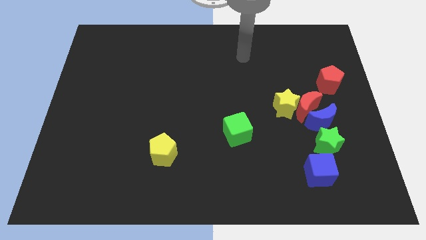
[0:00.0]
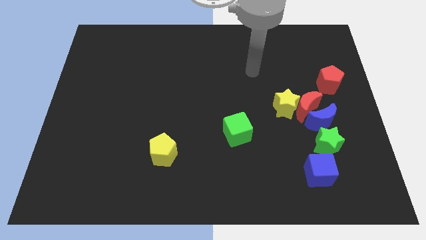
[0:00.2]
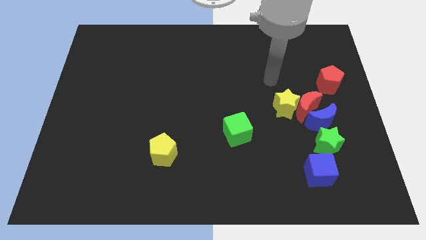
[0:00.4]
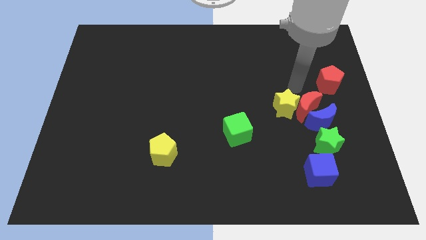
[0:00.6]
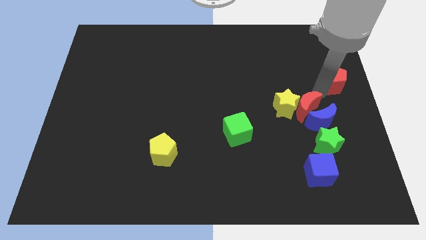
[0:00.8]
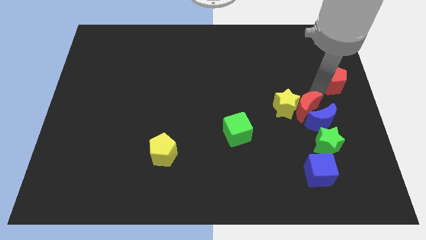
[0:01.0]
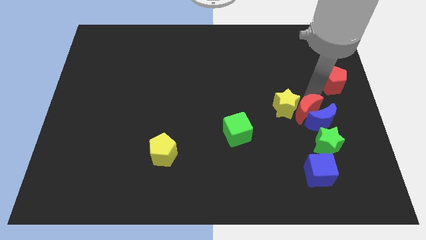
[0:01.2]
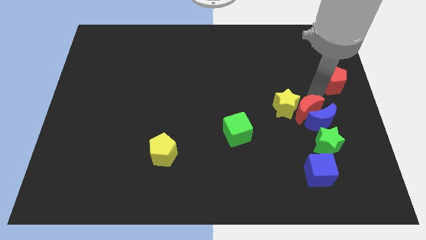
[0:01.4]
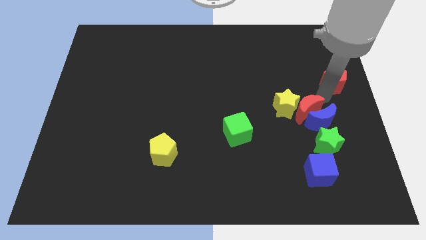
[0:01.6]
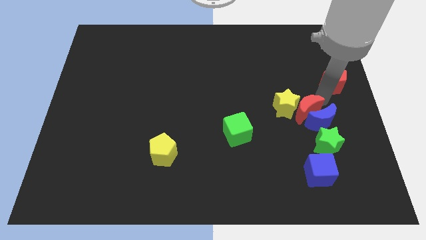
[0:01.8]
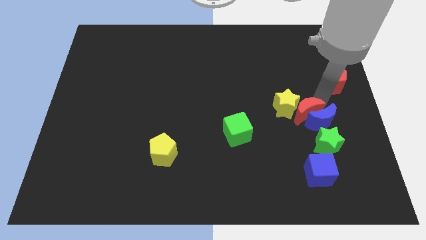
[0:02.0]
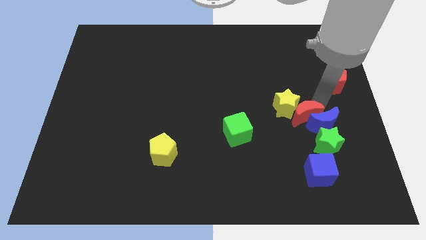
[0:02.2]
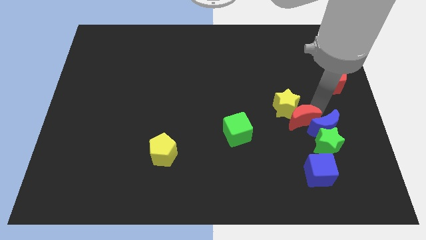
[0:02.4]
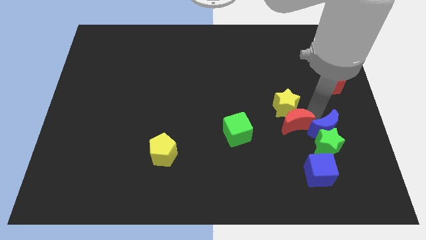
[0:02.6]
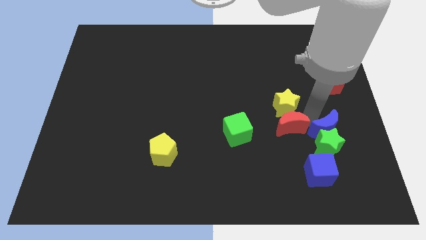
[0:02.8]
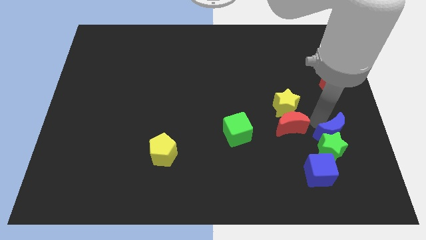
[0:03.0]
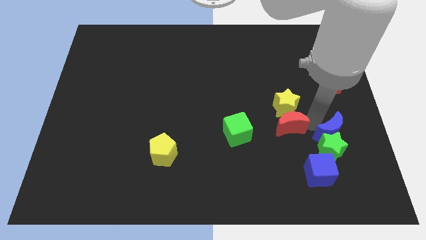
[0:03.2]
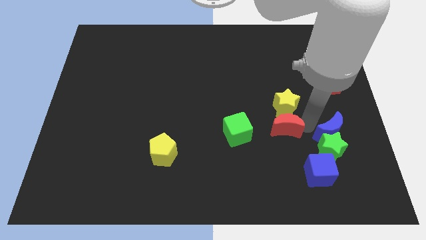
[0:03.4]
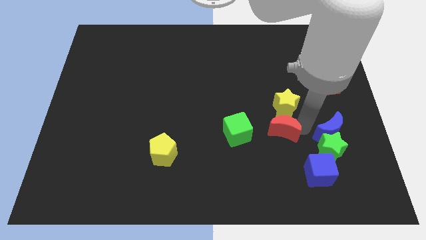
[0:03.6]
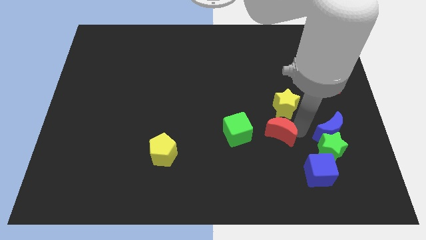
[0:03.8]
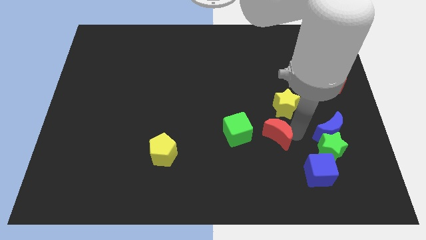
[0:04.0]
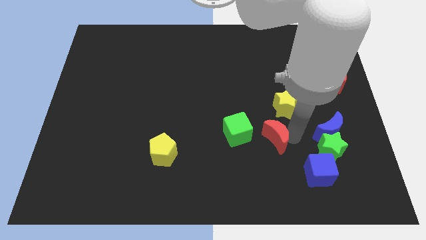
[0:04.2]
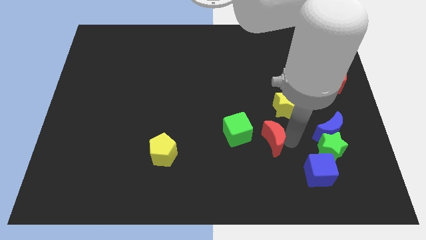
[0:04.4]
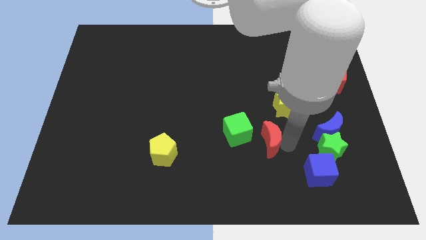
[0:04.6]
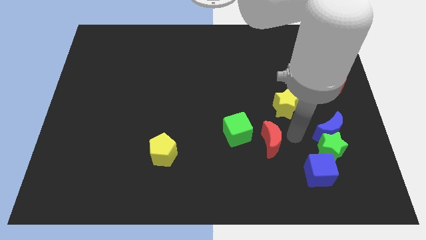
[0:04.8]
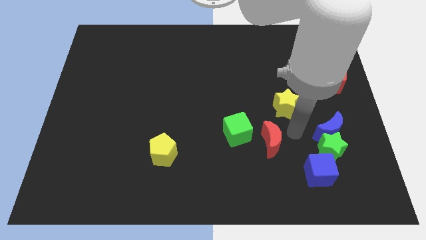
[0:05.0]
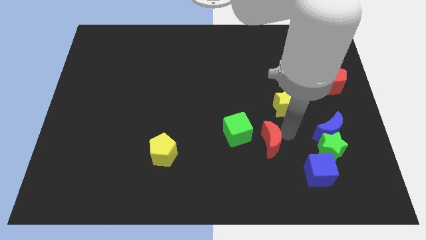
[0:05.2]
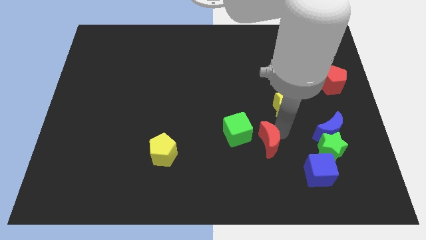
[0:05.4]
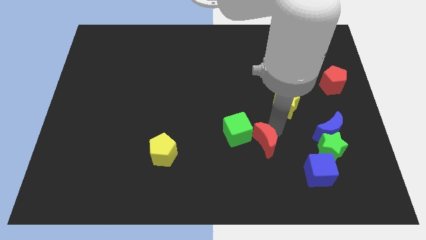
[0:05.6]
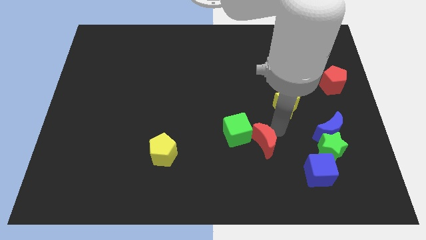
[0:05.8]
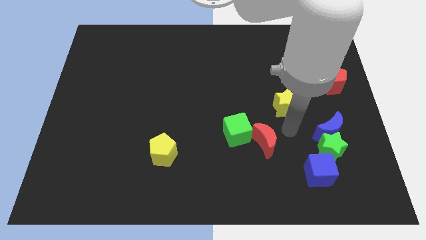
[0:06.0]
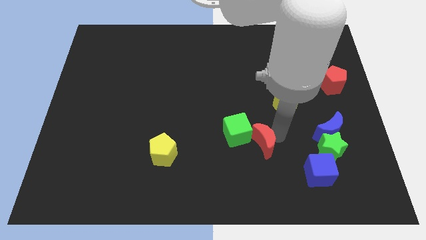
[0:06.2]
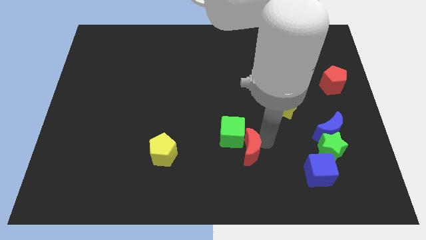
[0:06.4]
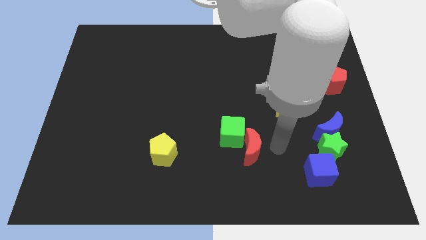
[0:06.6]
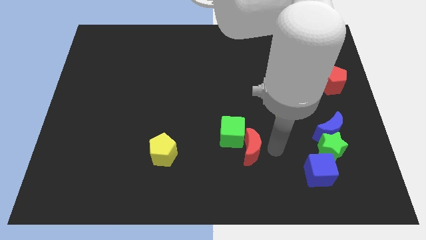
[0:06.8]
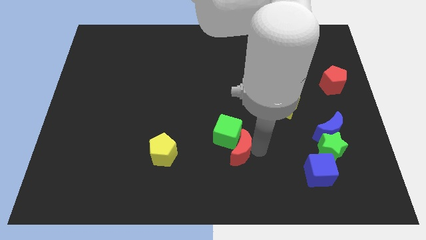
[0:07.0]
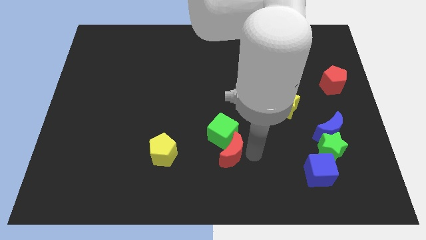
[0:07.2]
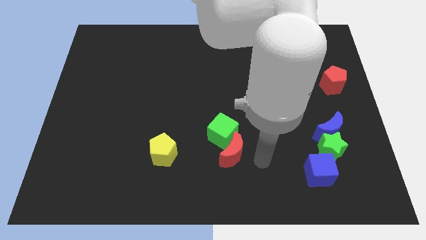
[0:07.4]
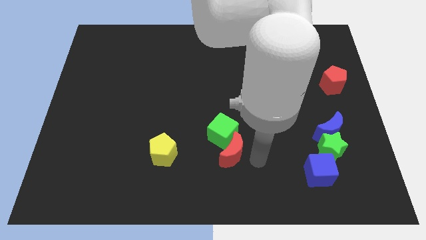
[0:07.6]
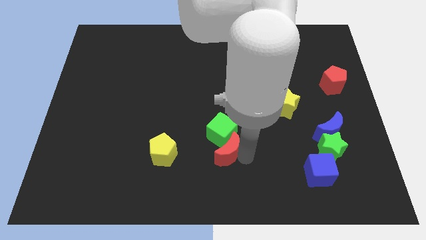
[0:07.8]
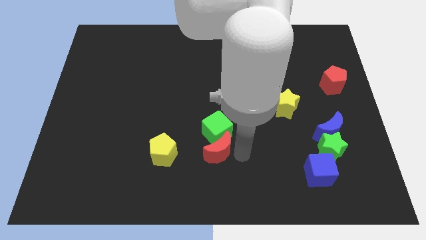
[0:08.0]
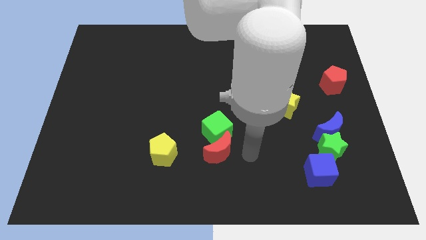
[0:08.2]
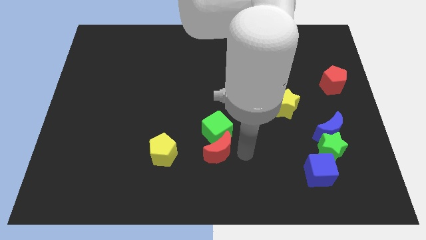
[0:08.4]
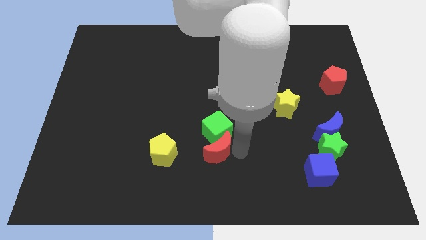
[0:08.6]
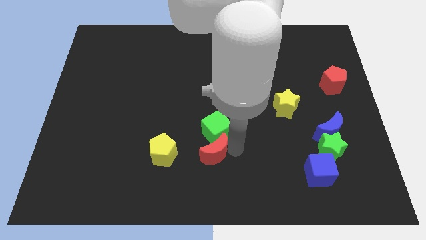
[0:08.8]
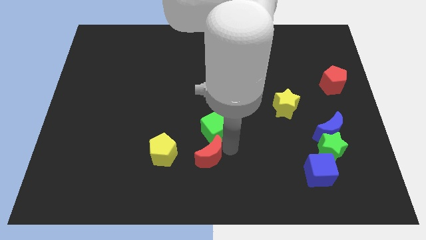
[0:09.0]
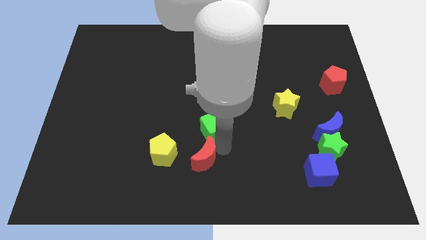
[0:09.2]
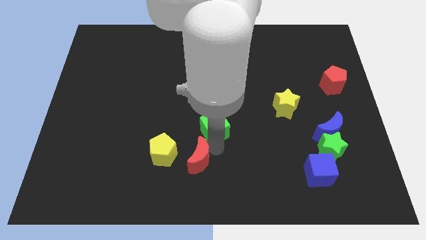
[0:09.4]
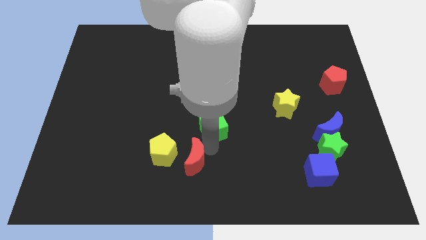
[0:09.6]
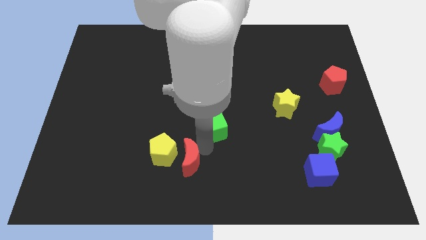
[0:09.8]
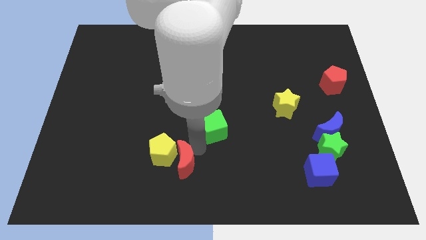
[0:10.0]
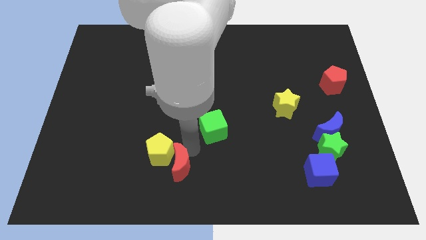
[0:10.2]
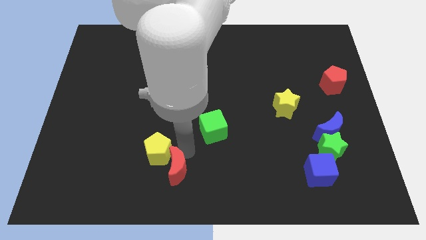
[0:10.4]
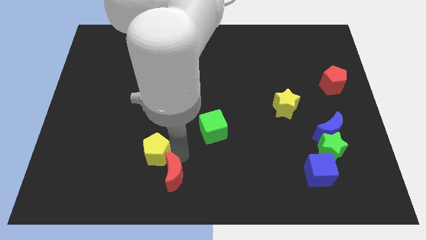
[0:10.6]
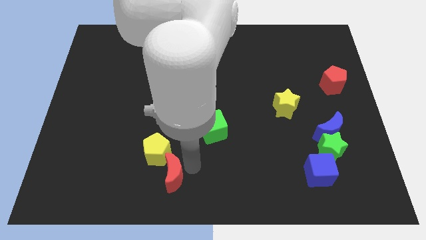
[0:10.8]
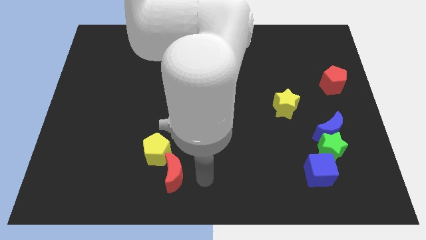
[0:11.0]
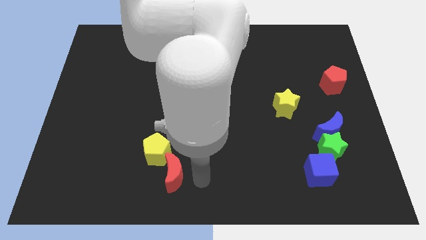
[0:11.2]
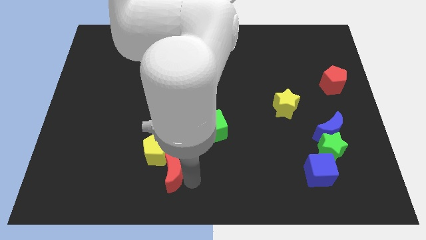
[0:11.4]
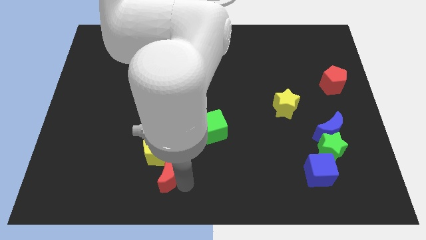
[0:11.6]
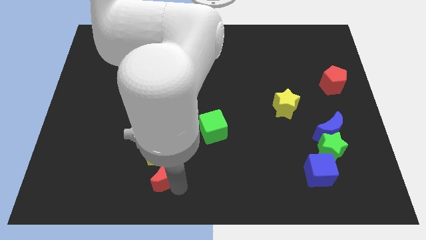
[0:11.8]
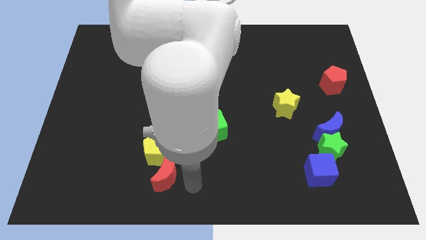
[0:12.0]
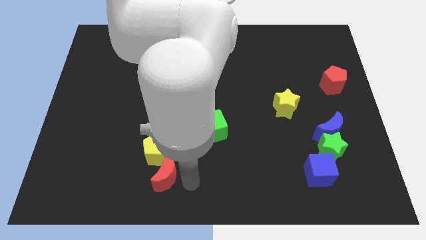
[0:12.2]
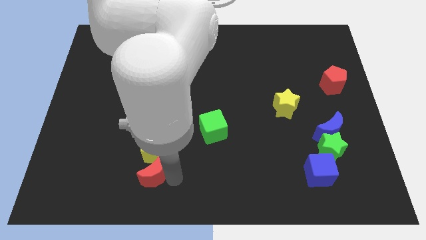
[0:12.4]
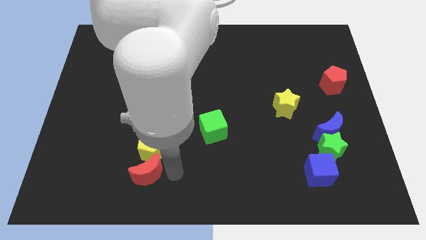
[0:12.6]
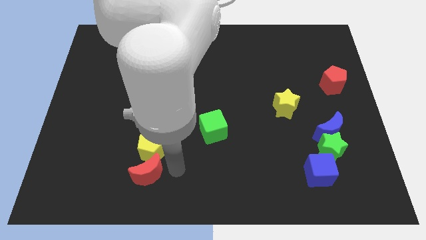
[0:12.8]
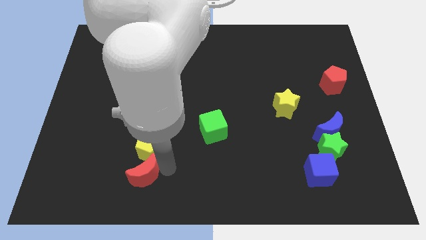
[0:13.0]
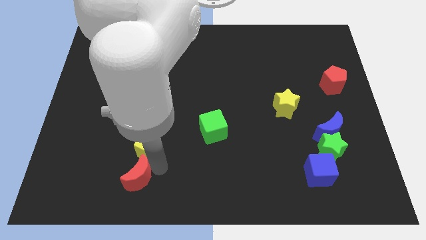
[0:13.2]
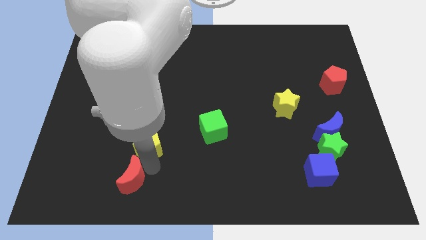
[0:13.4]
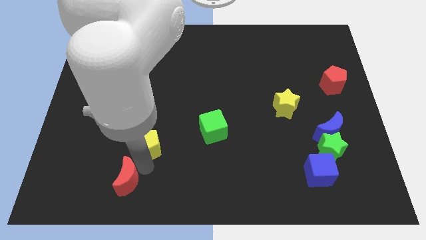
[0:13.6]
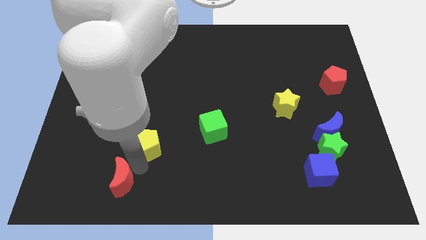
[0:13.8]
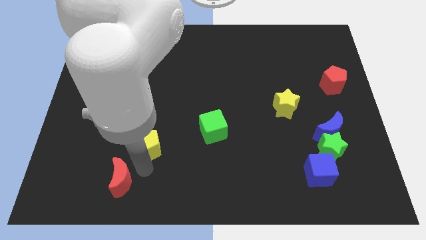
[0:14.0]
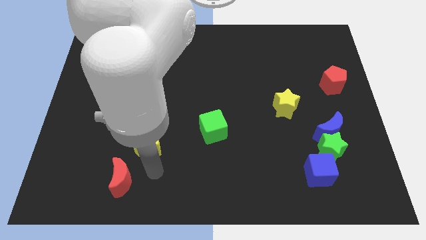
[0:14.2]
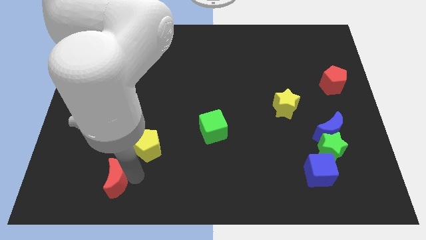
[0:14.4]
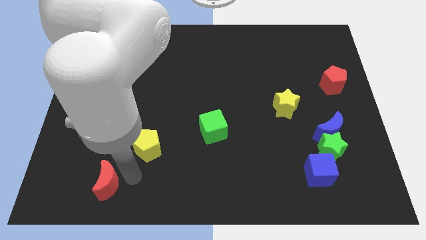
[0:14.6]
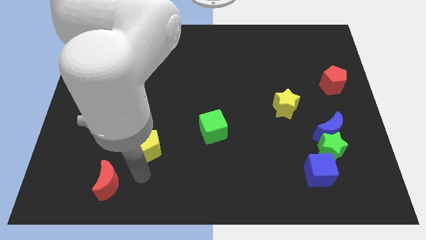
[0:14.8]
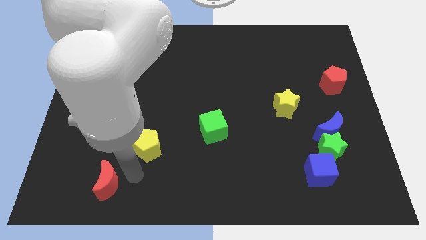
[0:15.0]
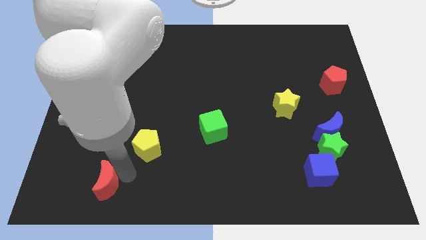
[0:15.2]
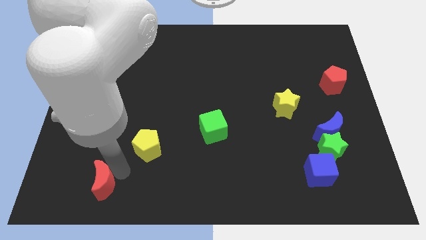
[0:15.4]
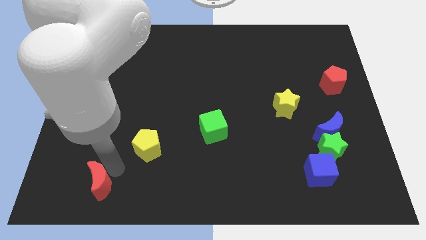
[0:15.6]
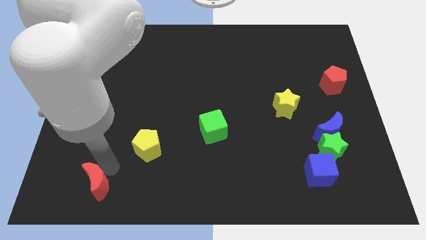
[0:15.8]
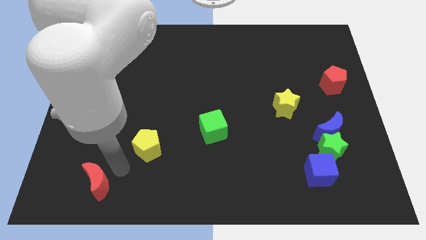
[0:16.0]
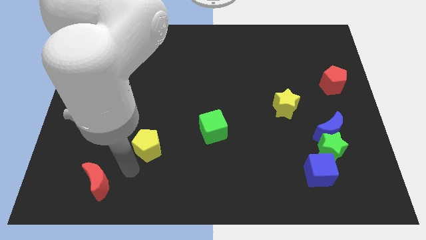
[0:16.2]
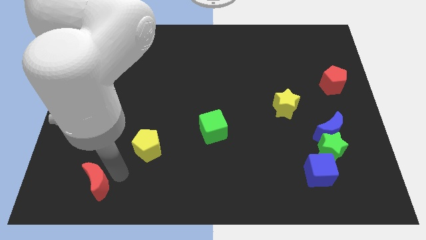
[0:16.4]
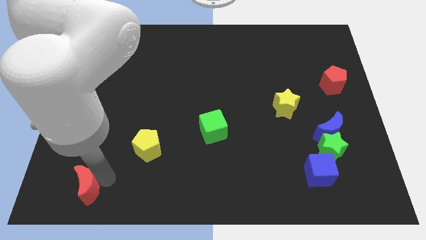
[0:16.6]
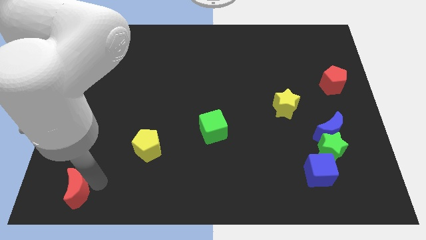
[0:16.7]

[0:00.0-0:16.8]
slide the red moon to the bottom left
